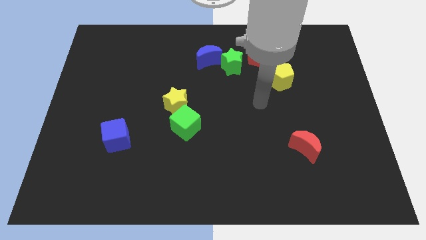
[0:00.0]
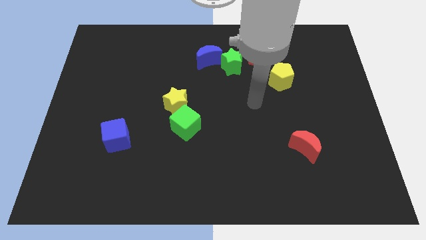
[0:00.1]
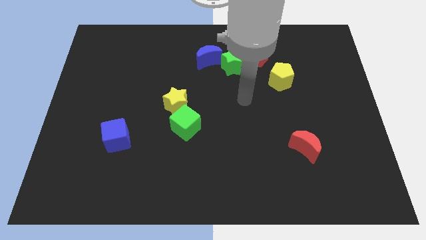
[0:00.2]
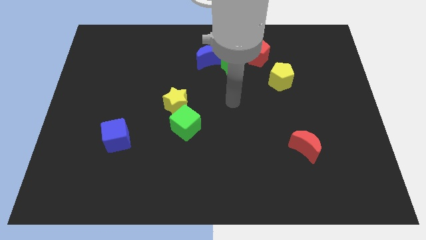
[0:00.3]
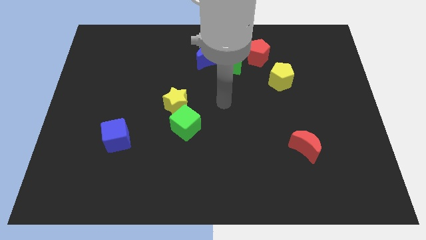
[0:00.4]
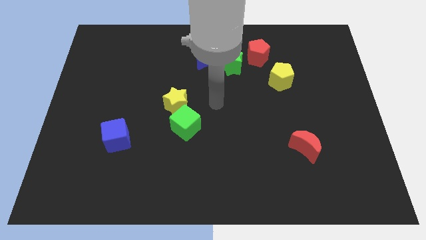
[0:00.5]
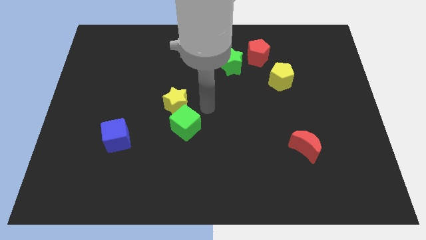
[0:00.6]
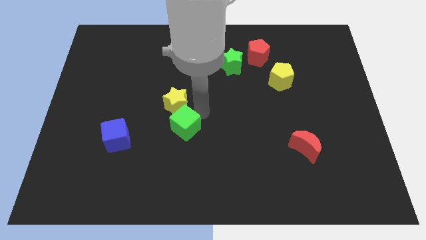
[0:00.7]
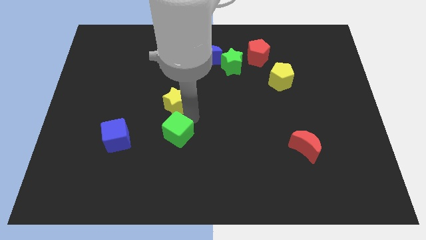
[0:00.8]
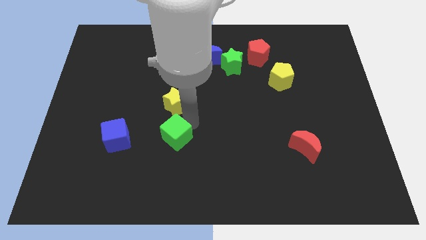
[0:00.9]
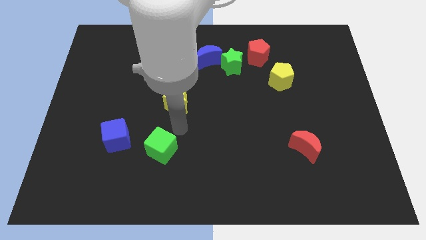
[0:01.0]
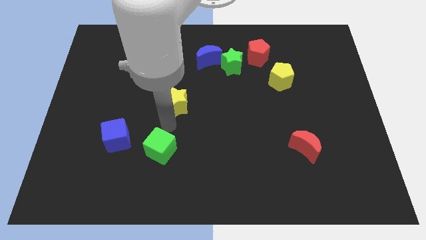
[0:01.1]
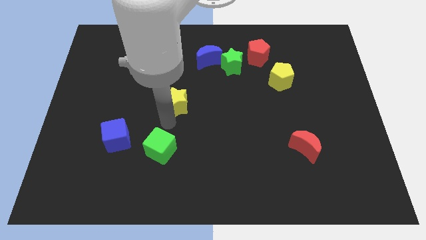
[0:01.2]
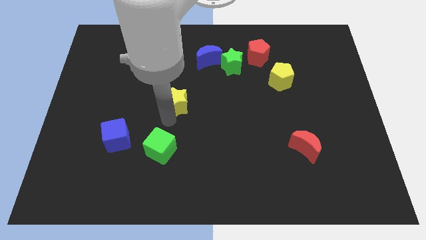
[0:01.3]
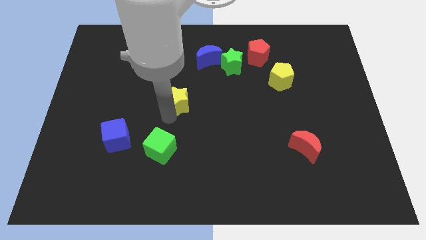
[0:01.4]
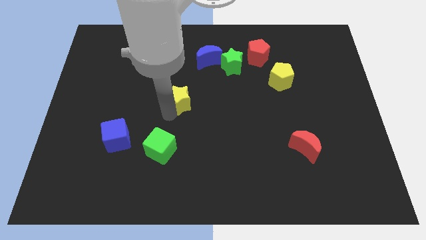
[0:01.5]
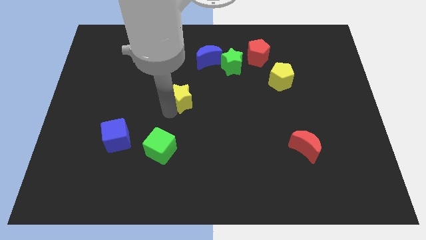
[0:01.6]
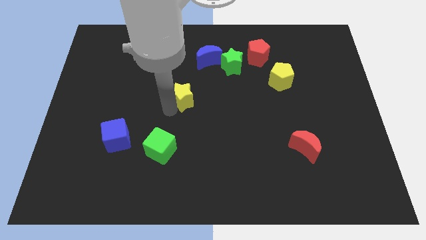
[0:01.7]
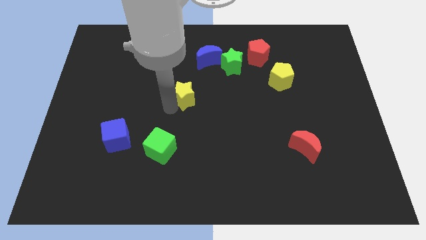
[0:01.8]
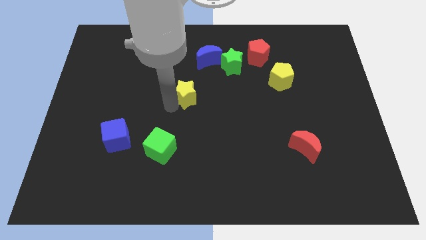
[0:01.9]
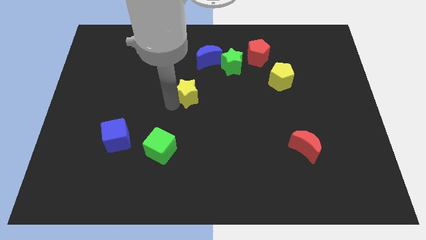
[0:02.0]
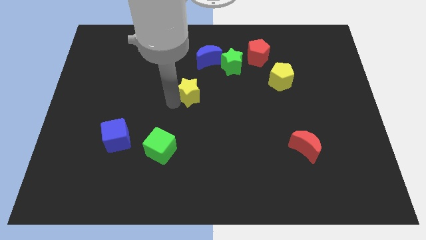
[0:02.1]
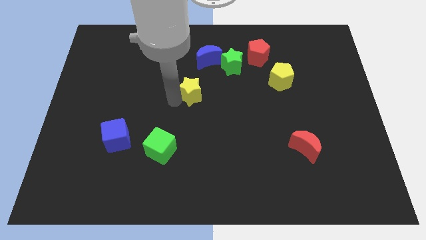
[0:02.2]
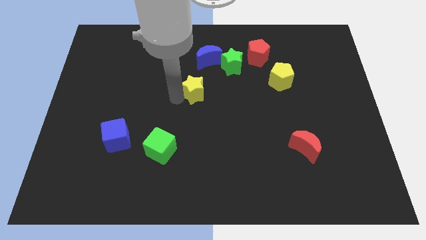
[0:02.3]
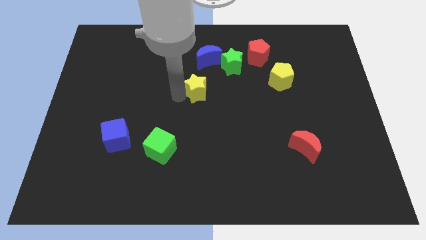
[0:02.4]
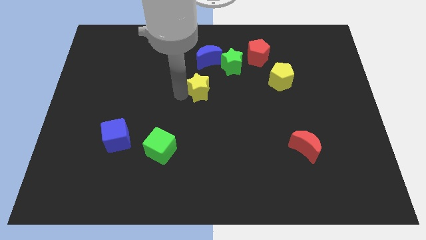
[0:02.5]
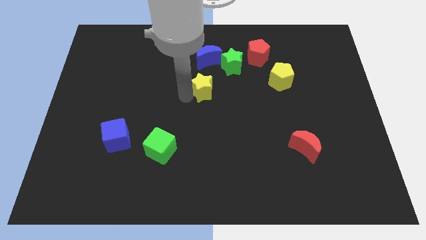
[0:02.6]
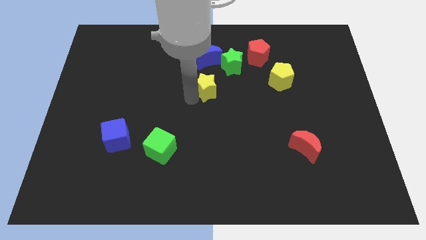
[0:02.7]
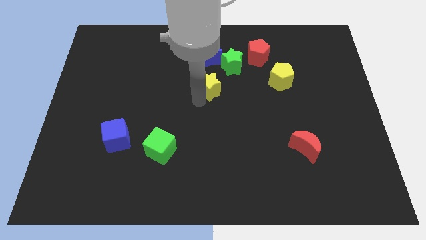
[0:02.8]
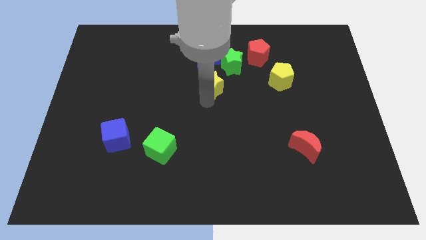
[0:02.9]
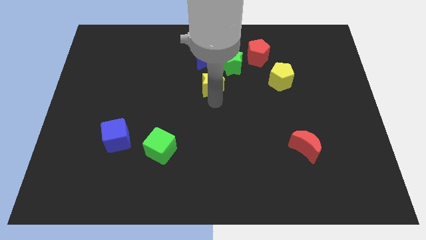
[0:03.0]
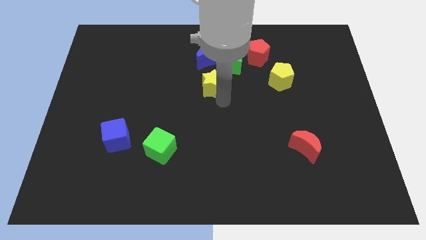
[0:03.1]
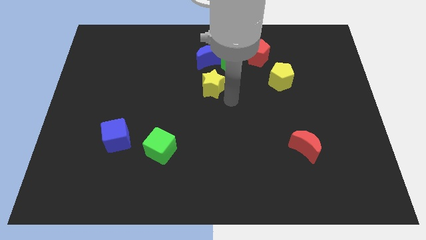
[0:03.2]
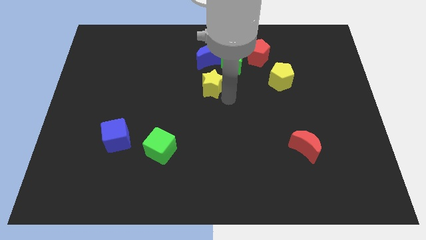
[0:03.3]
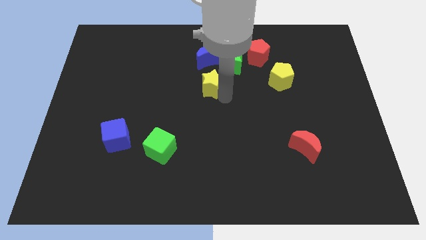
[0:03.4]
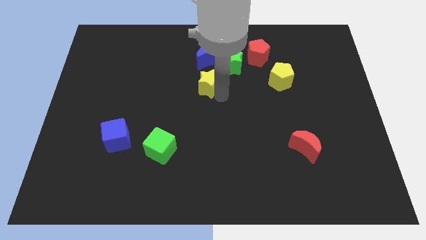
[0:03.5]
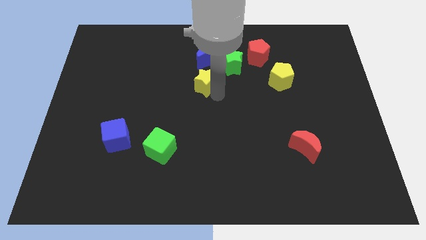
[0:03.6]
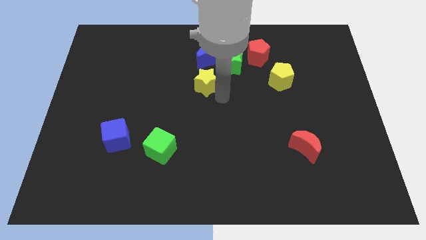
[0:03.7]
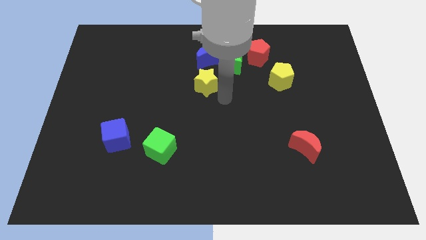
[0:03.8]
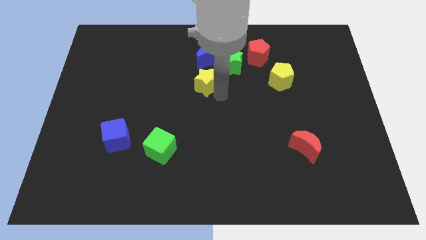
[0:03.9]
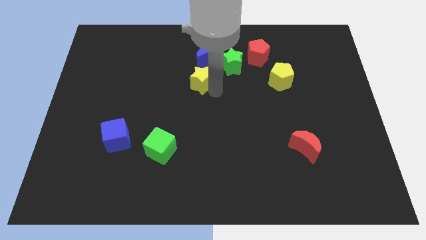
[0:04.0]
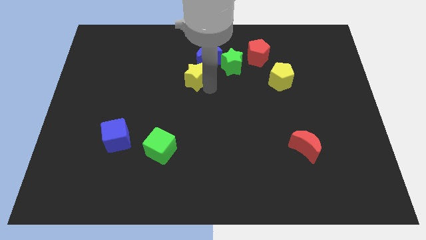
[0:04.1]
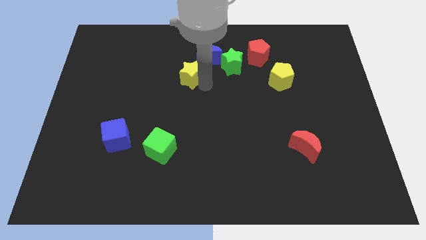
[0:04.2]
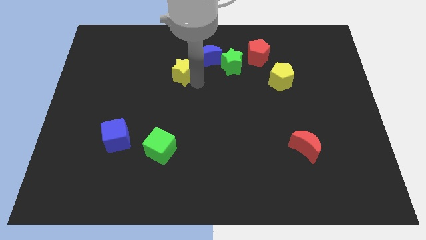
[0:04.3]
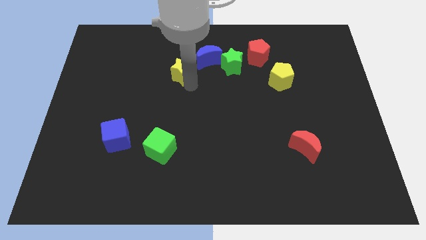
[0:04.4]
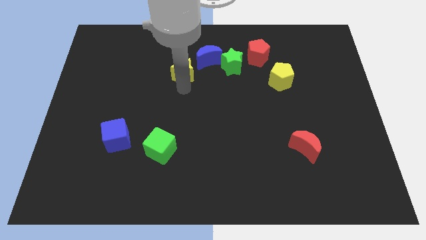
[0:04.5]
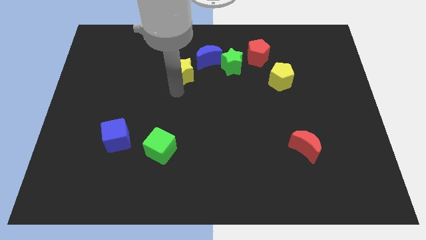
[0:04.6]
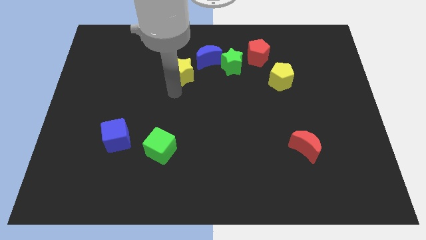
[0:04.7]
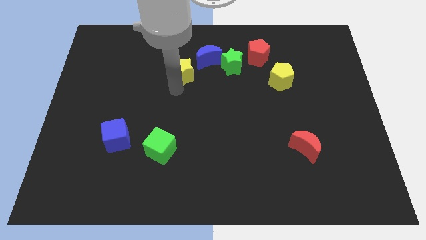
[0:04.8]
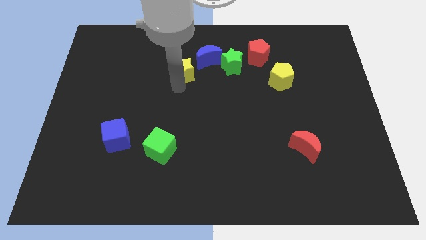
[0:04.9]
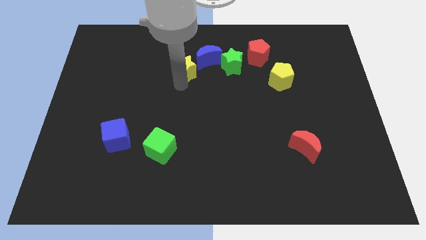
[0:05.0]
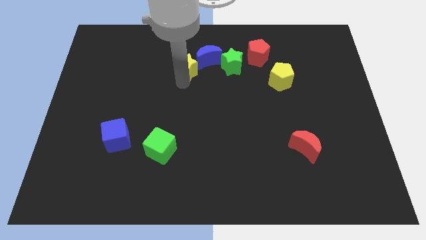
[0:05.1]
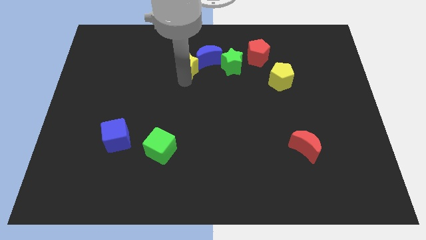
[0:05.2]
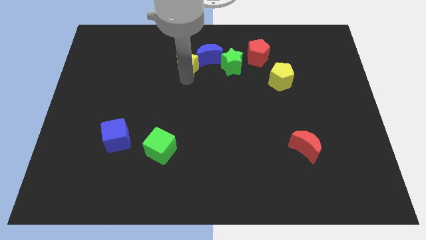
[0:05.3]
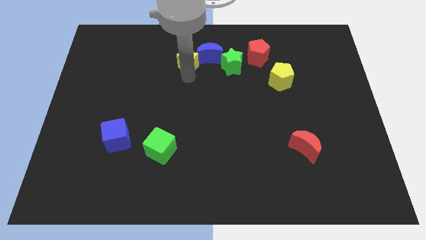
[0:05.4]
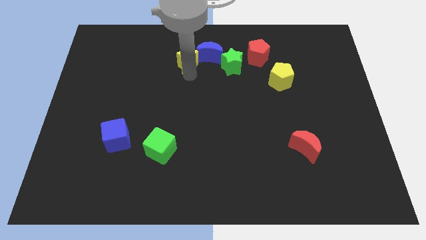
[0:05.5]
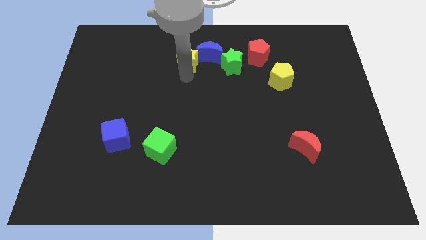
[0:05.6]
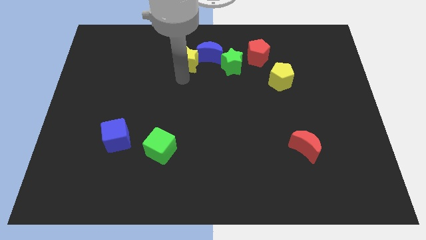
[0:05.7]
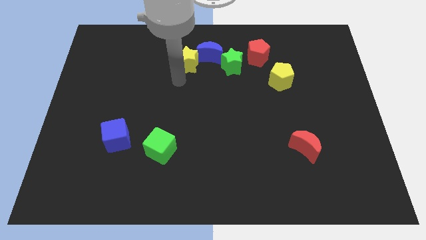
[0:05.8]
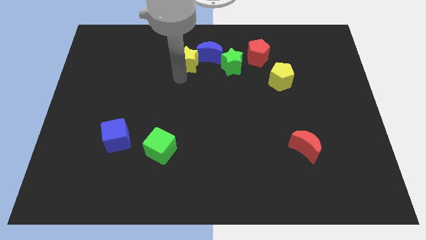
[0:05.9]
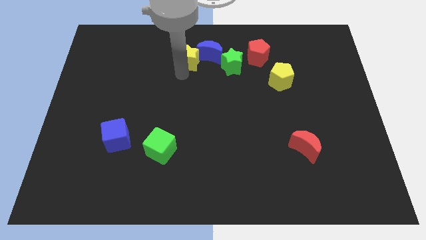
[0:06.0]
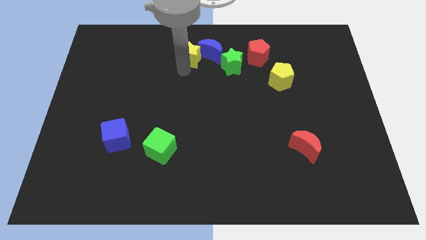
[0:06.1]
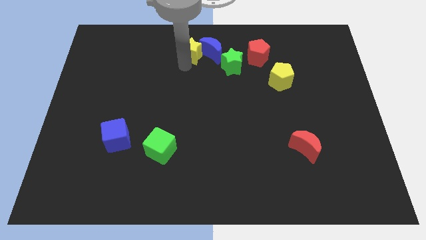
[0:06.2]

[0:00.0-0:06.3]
push the yellow star to the top side
